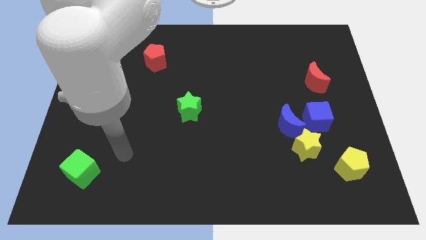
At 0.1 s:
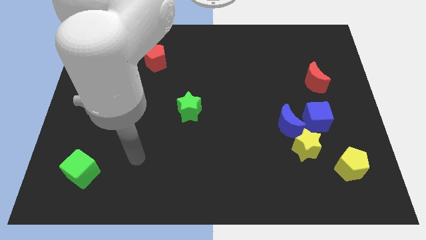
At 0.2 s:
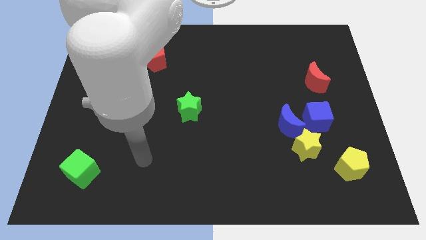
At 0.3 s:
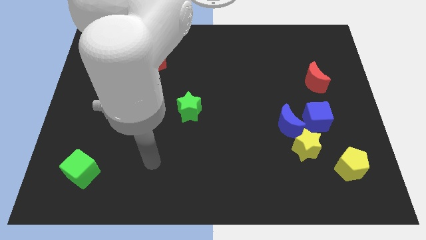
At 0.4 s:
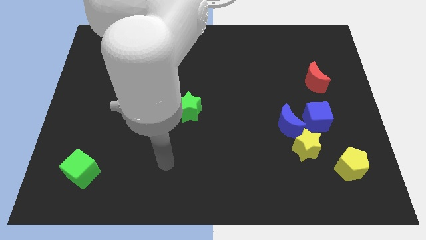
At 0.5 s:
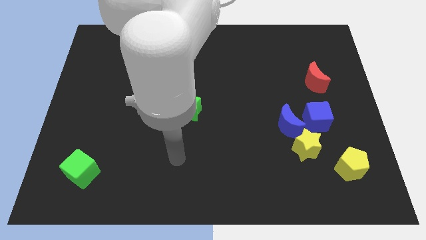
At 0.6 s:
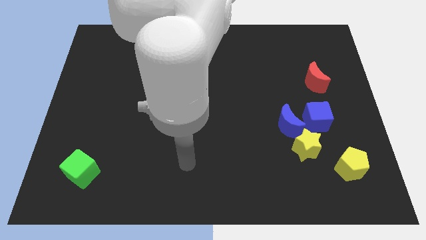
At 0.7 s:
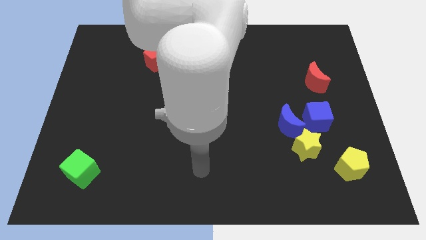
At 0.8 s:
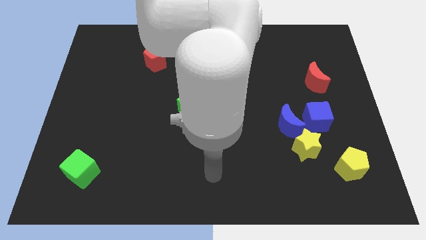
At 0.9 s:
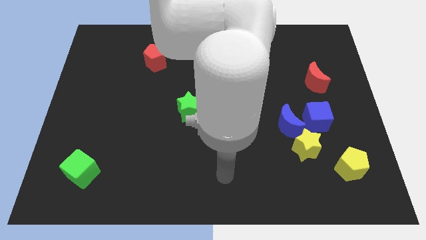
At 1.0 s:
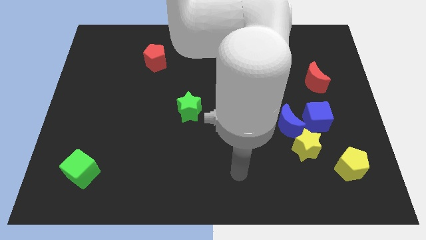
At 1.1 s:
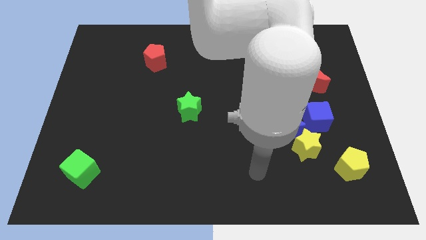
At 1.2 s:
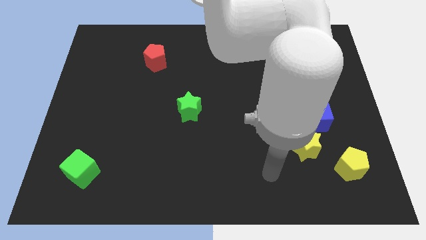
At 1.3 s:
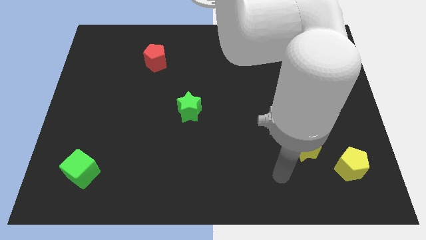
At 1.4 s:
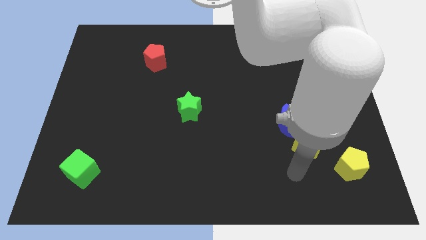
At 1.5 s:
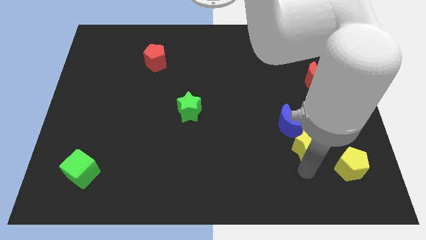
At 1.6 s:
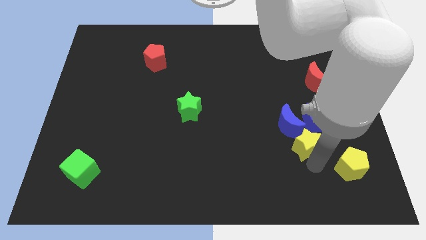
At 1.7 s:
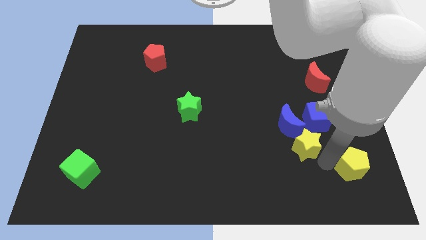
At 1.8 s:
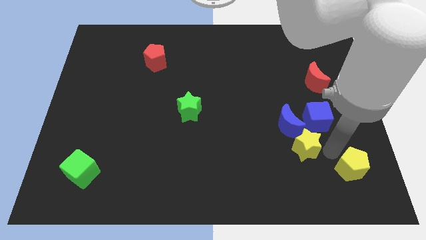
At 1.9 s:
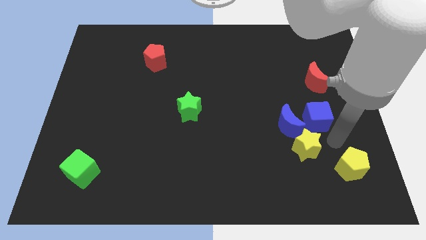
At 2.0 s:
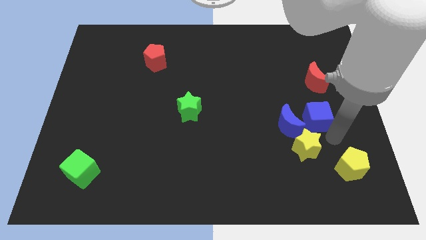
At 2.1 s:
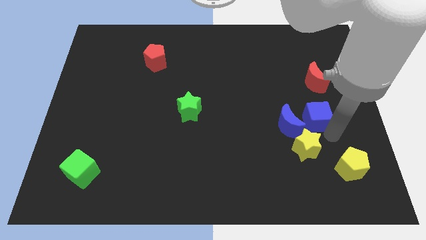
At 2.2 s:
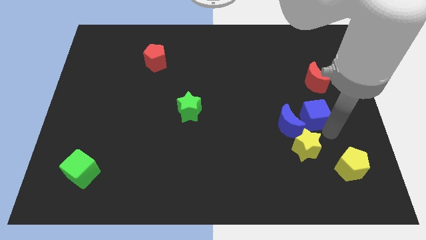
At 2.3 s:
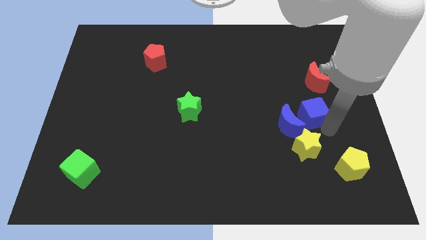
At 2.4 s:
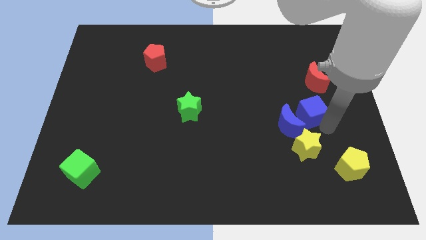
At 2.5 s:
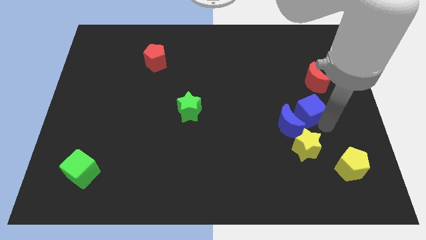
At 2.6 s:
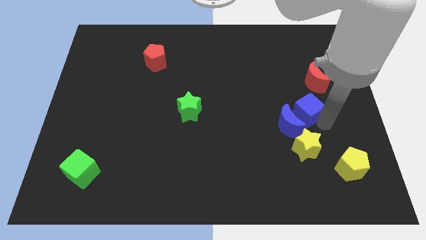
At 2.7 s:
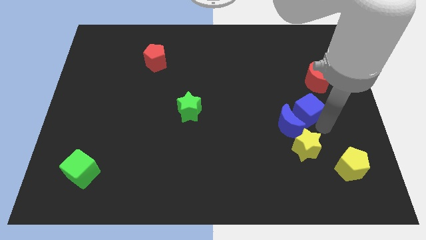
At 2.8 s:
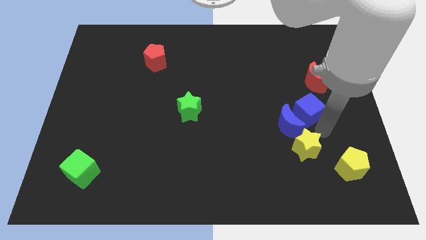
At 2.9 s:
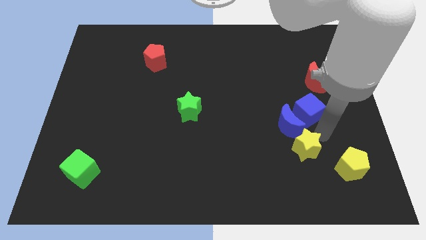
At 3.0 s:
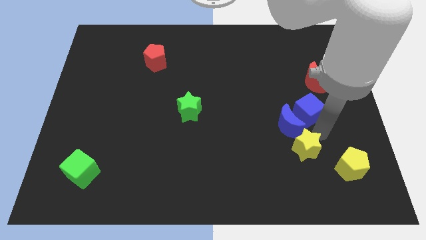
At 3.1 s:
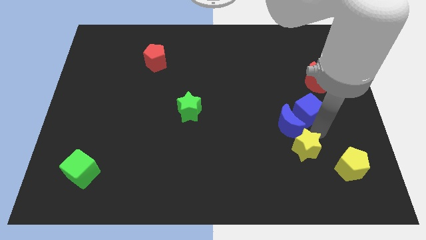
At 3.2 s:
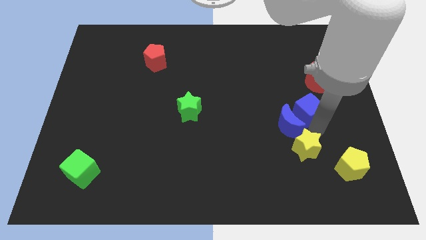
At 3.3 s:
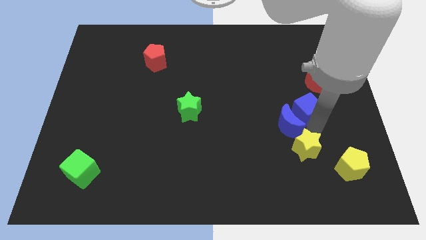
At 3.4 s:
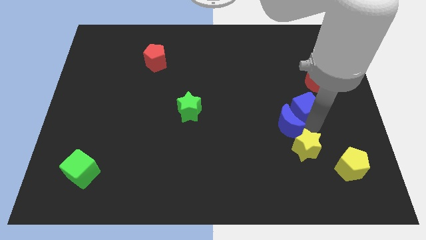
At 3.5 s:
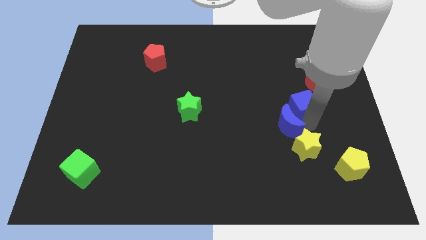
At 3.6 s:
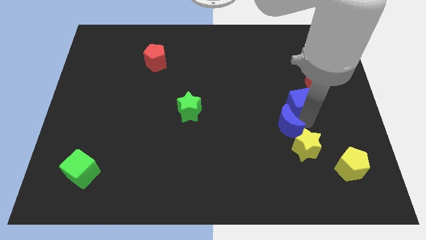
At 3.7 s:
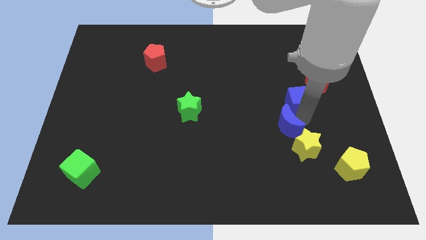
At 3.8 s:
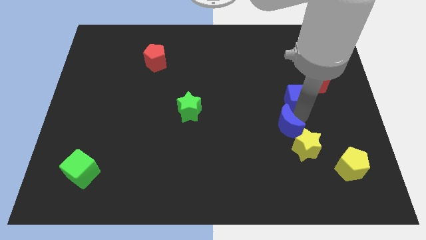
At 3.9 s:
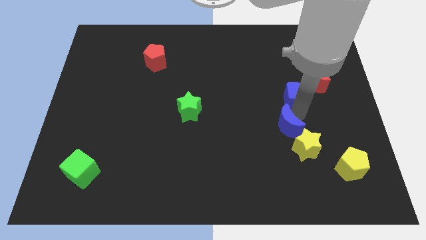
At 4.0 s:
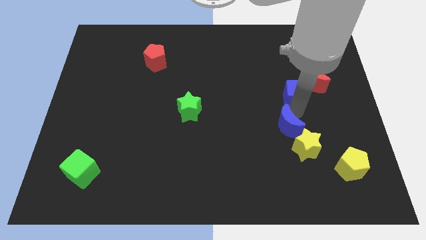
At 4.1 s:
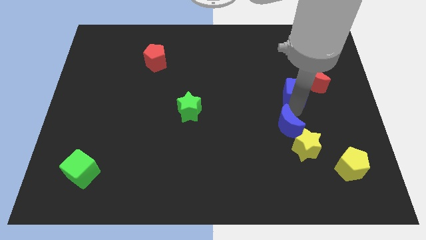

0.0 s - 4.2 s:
slightly push the blue cube up

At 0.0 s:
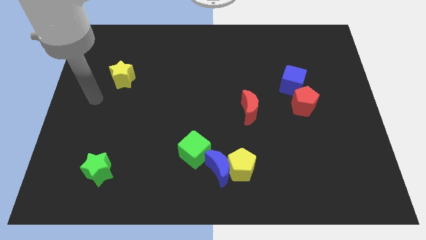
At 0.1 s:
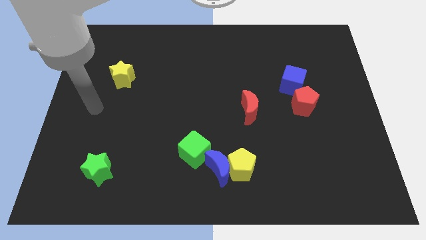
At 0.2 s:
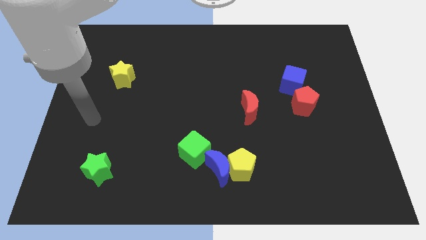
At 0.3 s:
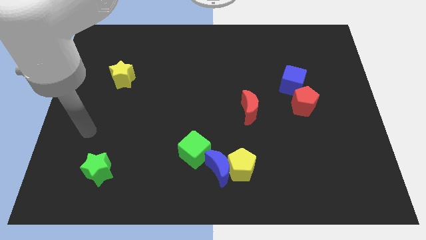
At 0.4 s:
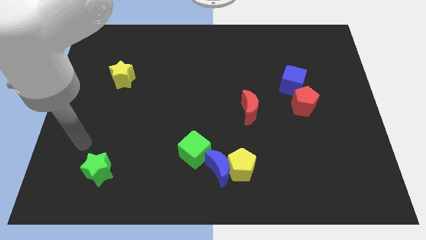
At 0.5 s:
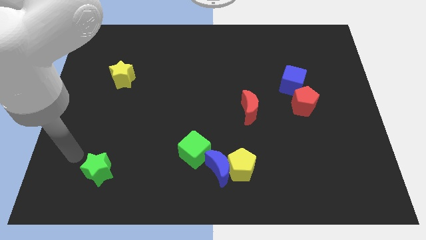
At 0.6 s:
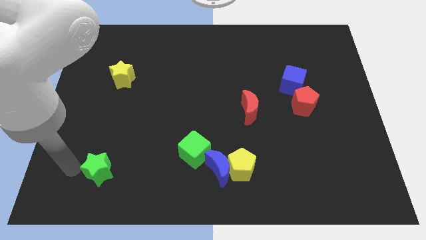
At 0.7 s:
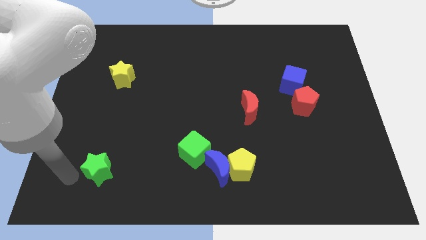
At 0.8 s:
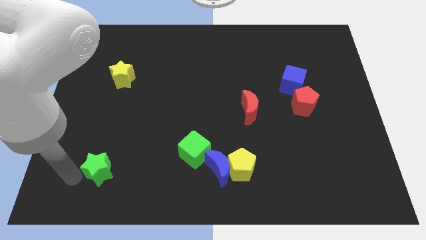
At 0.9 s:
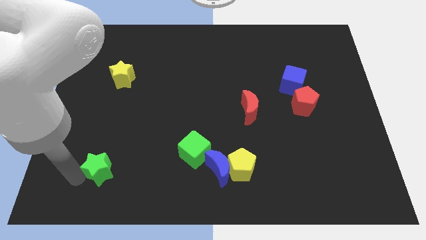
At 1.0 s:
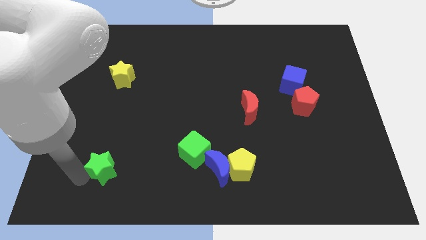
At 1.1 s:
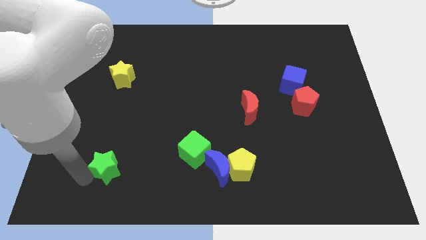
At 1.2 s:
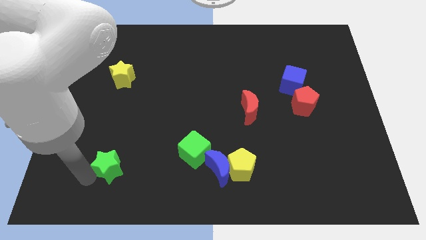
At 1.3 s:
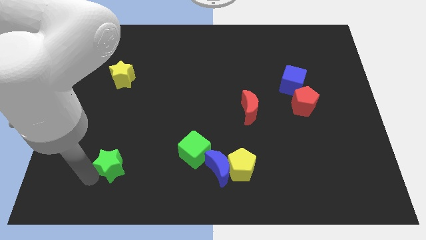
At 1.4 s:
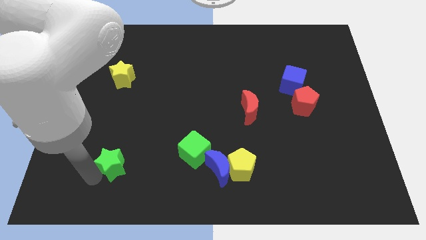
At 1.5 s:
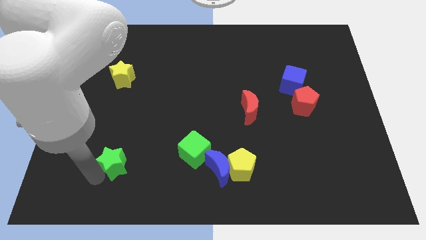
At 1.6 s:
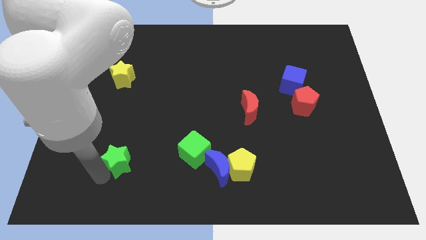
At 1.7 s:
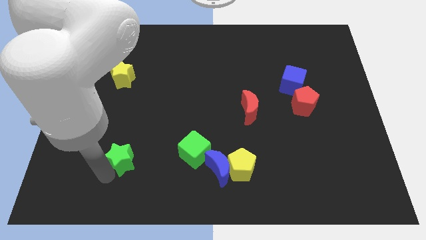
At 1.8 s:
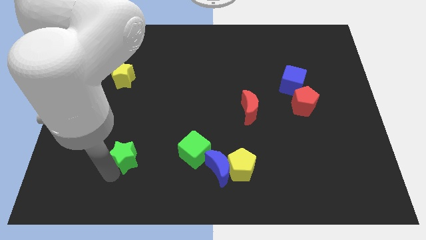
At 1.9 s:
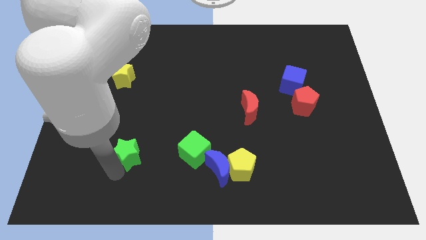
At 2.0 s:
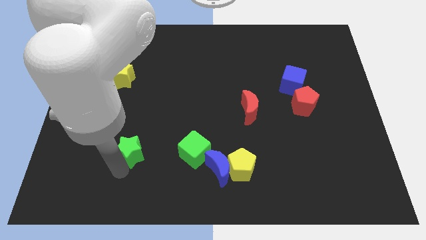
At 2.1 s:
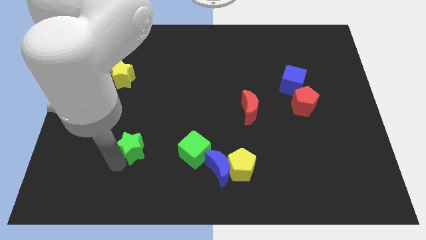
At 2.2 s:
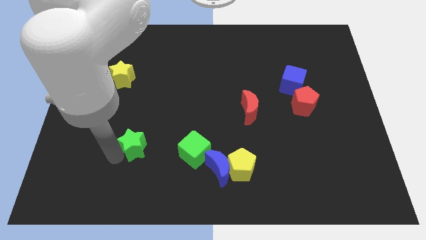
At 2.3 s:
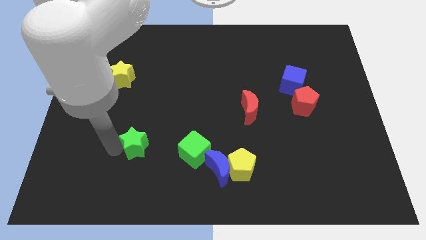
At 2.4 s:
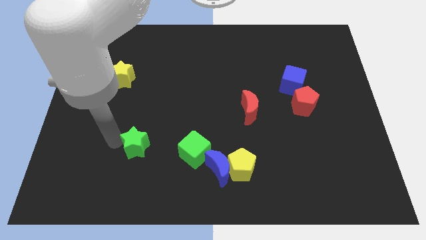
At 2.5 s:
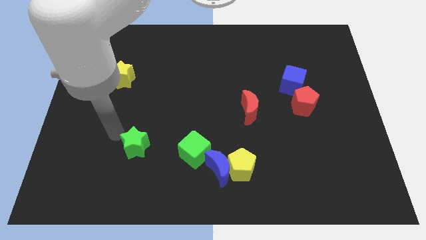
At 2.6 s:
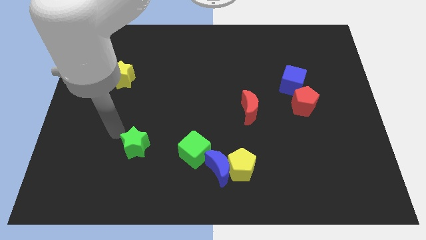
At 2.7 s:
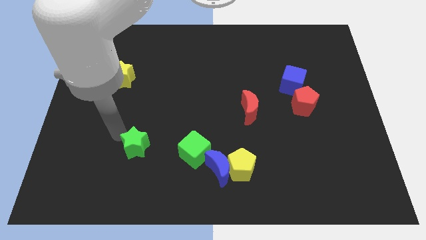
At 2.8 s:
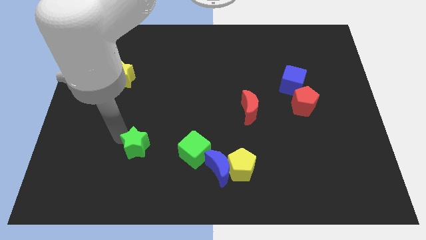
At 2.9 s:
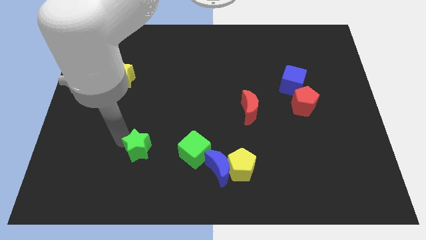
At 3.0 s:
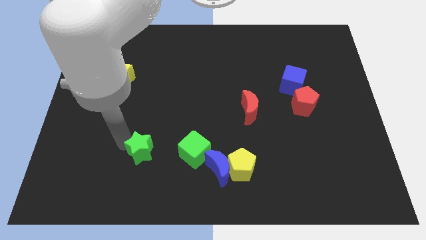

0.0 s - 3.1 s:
slide the green star a little to the right

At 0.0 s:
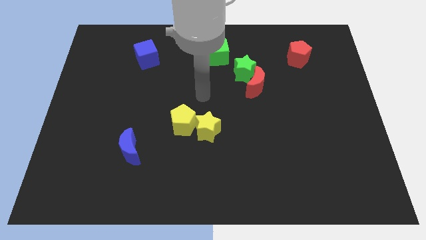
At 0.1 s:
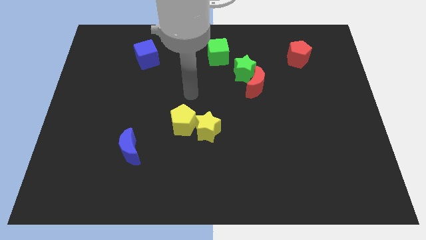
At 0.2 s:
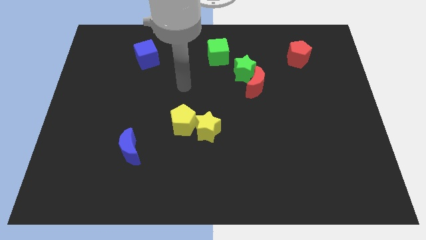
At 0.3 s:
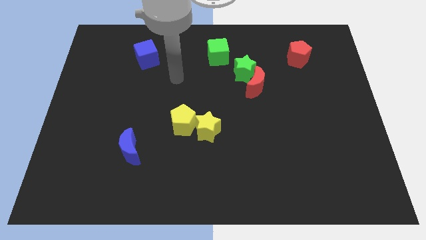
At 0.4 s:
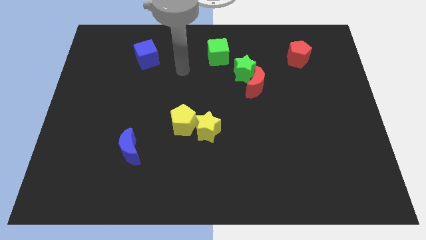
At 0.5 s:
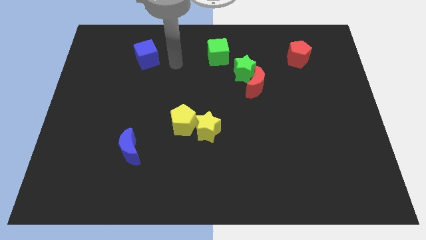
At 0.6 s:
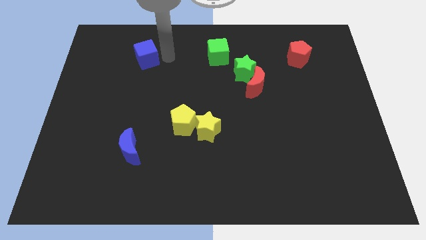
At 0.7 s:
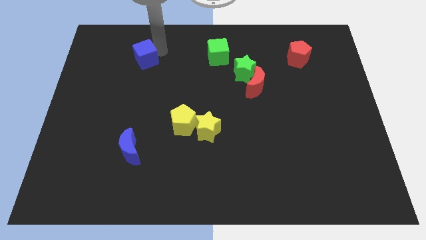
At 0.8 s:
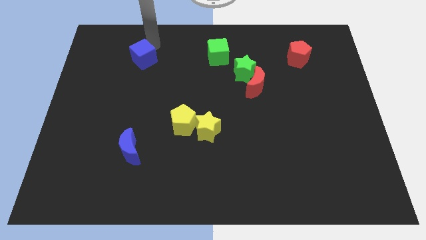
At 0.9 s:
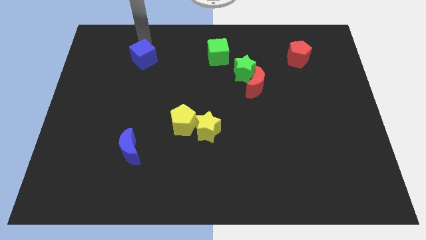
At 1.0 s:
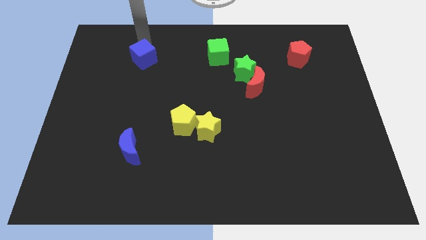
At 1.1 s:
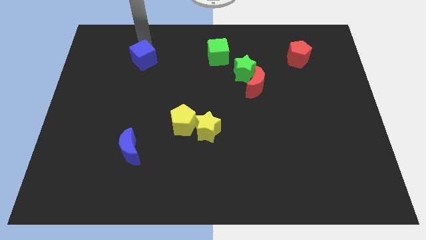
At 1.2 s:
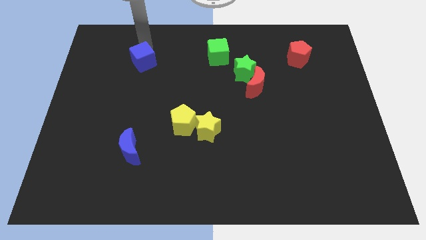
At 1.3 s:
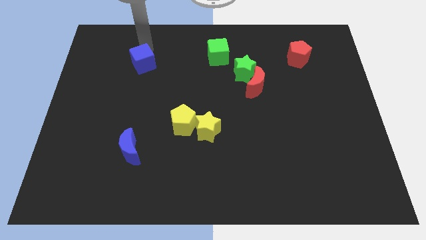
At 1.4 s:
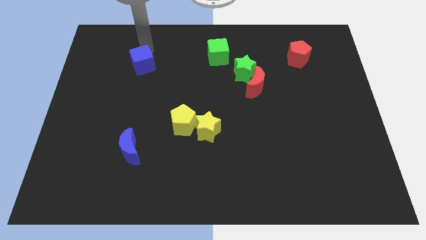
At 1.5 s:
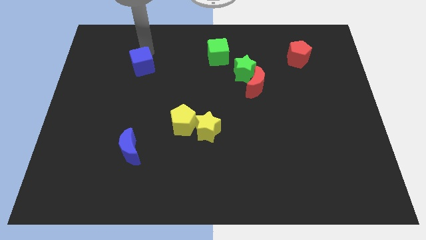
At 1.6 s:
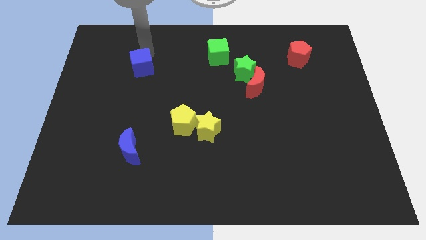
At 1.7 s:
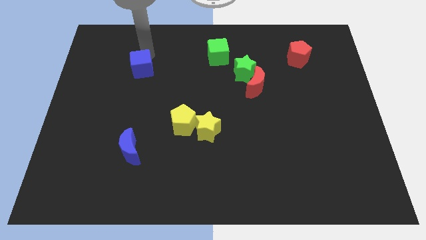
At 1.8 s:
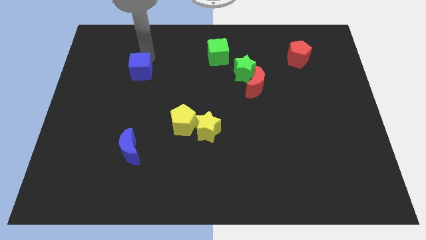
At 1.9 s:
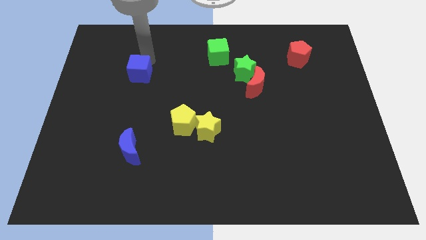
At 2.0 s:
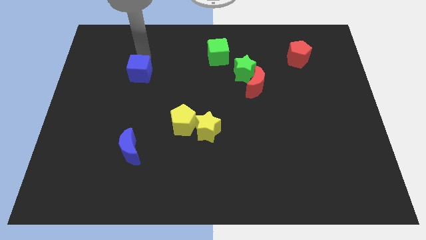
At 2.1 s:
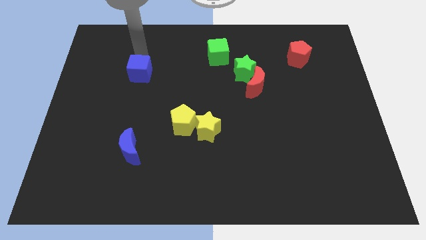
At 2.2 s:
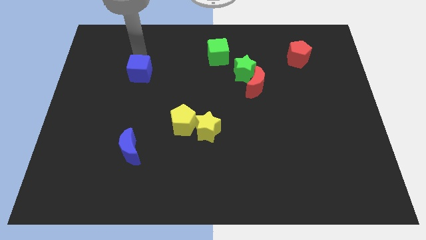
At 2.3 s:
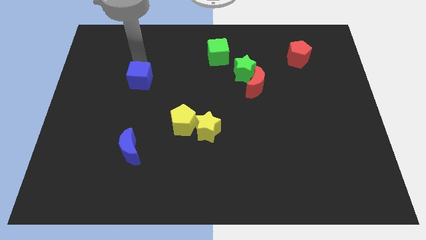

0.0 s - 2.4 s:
slightly slide the blue cube down
